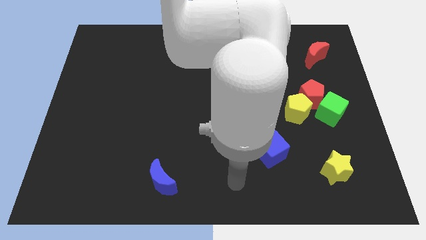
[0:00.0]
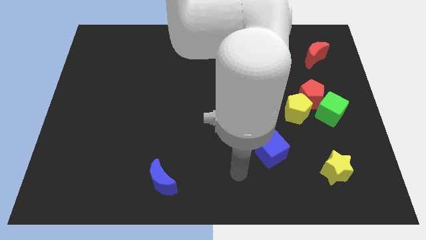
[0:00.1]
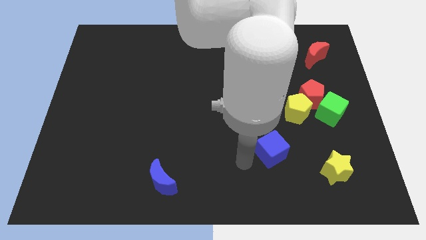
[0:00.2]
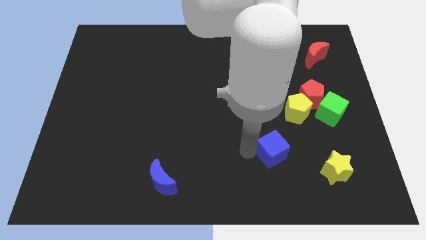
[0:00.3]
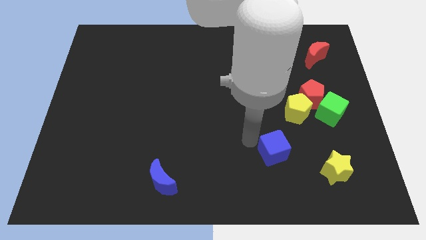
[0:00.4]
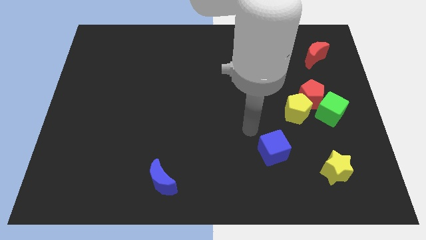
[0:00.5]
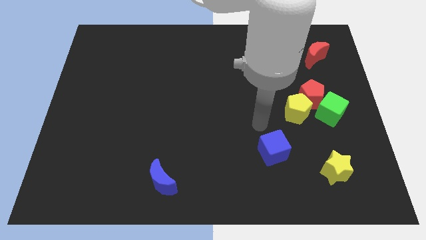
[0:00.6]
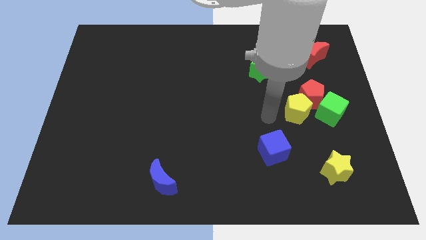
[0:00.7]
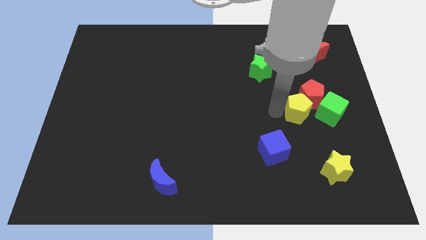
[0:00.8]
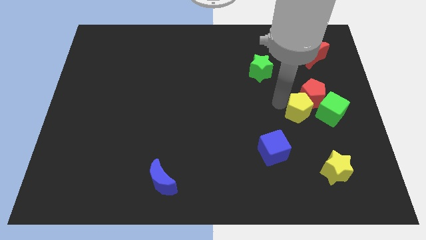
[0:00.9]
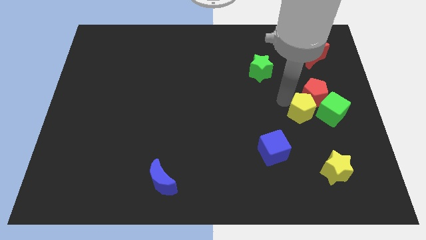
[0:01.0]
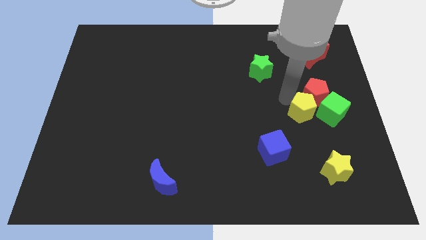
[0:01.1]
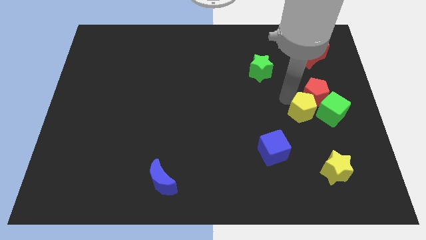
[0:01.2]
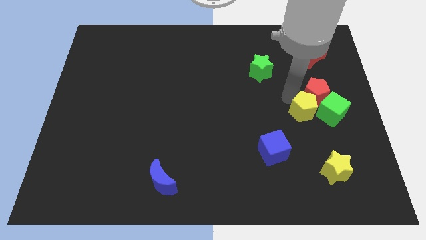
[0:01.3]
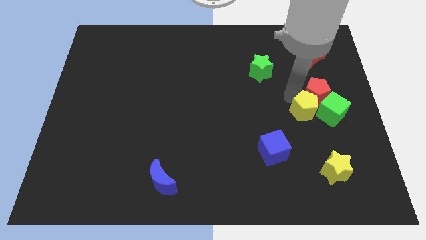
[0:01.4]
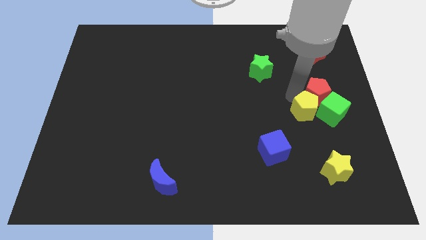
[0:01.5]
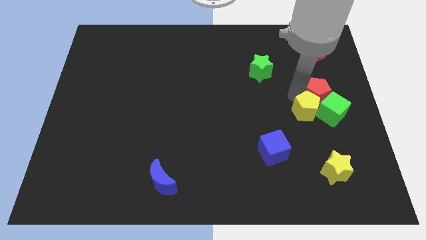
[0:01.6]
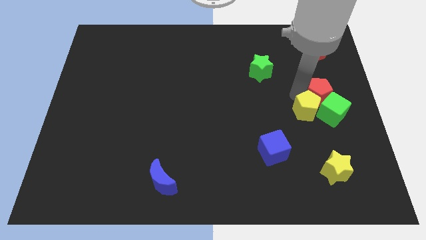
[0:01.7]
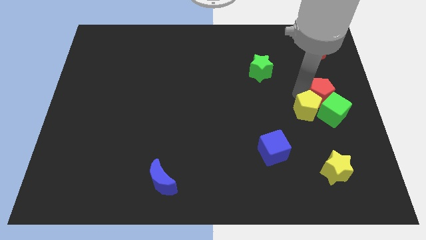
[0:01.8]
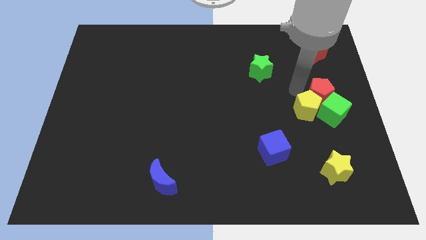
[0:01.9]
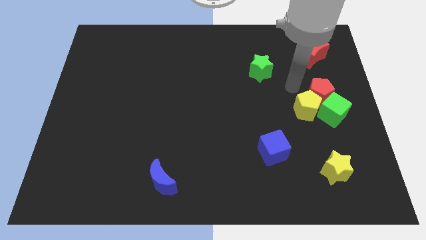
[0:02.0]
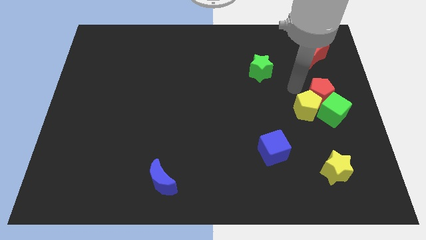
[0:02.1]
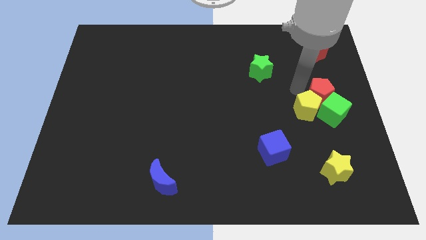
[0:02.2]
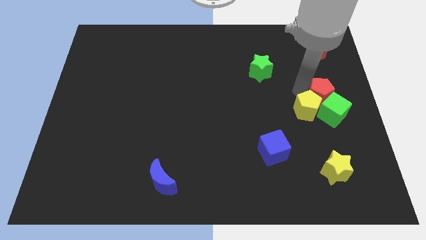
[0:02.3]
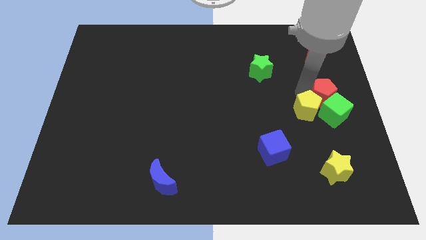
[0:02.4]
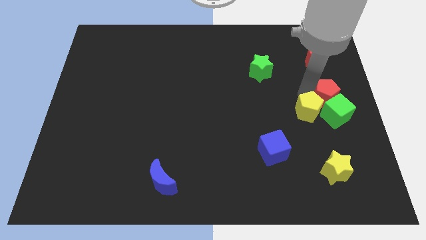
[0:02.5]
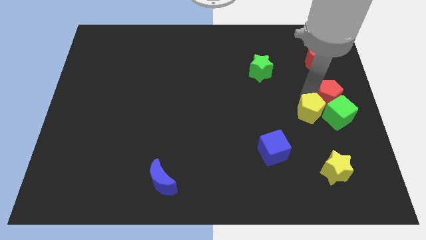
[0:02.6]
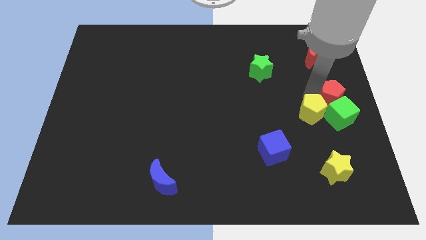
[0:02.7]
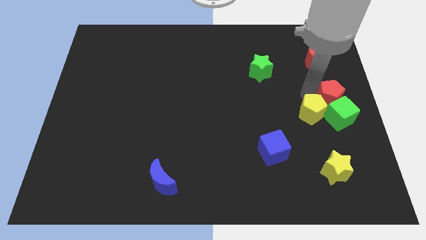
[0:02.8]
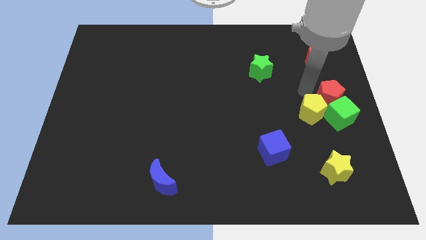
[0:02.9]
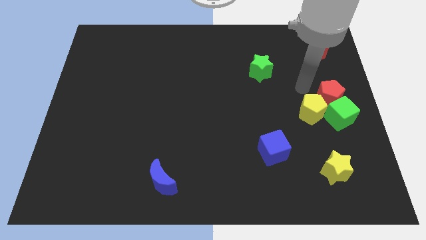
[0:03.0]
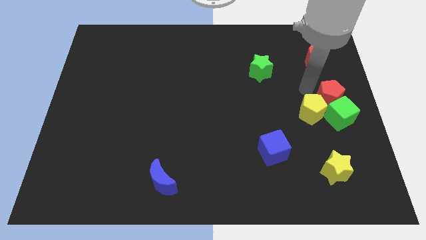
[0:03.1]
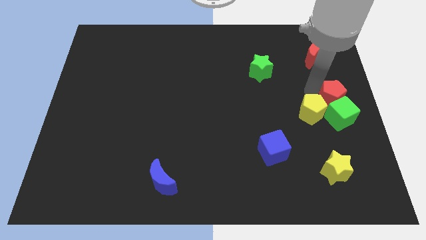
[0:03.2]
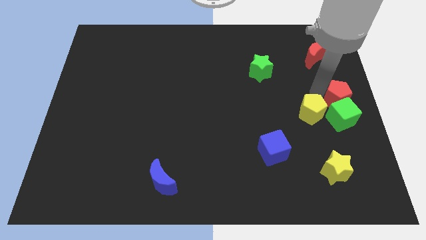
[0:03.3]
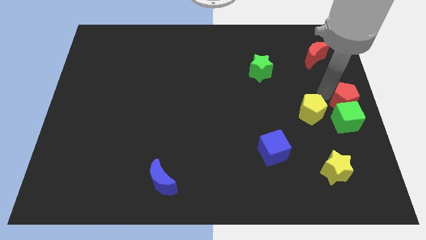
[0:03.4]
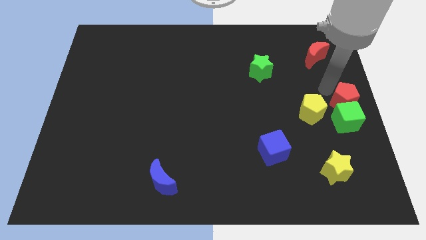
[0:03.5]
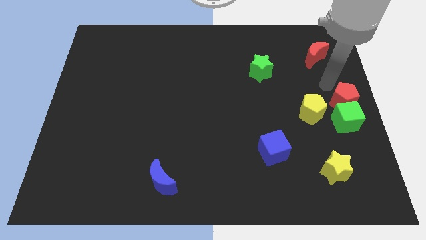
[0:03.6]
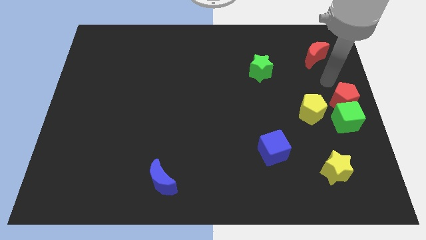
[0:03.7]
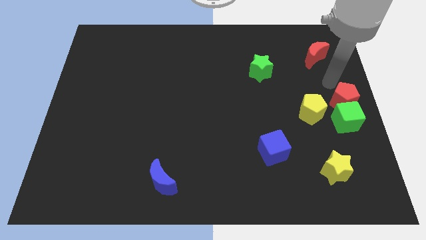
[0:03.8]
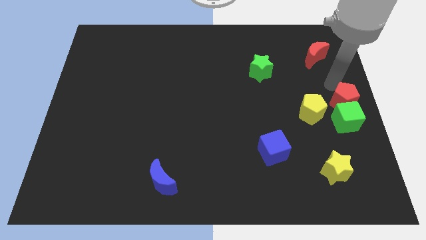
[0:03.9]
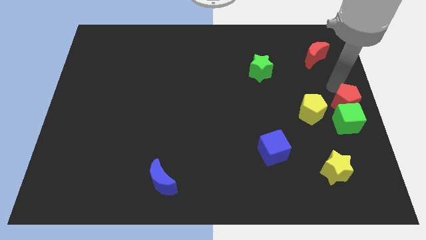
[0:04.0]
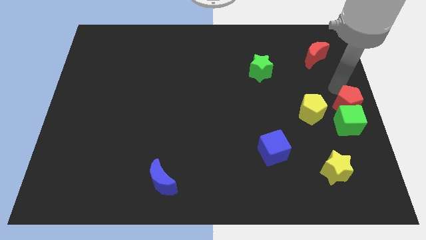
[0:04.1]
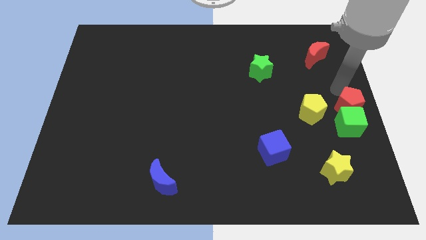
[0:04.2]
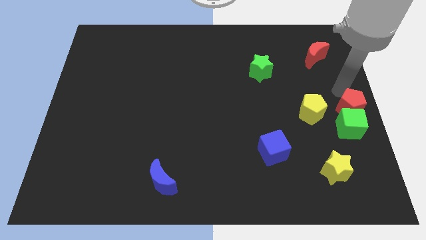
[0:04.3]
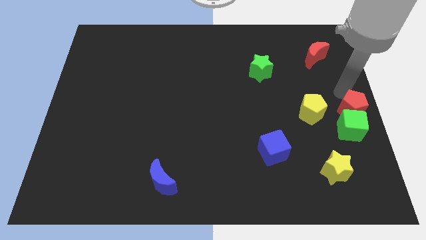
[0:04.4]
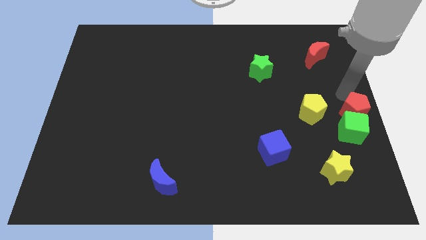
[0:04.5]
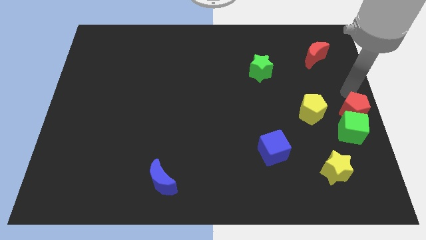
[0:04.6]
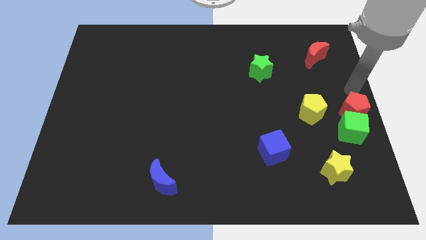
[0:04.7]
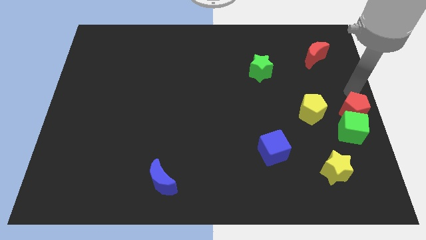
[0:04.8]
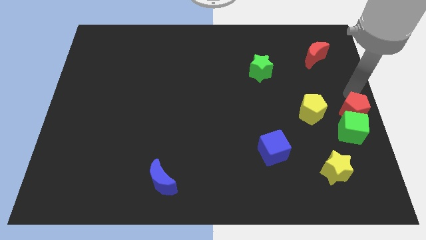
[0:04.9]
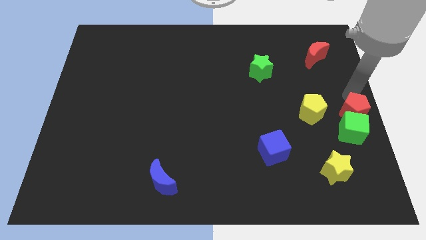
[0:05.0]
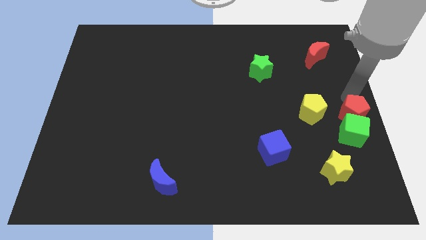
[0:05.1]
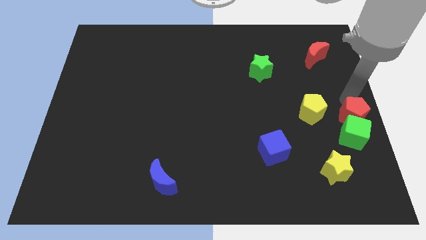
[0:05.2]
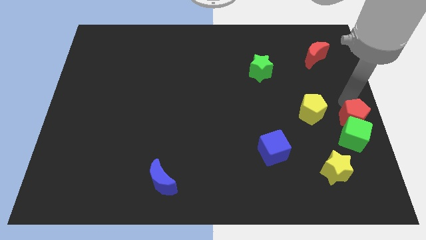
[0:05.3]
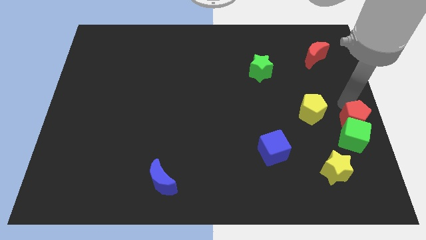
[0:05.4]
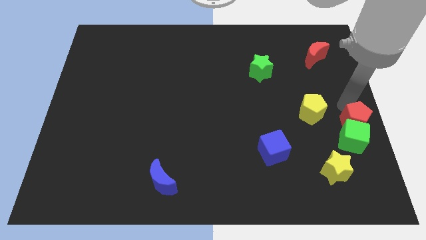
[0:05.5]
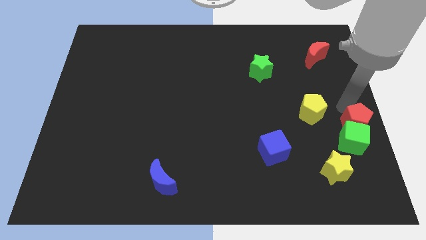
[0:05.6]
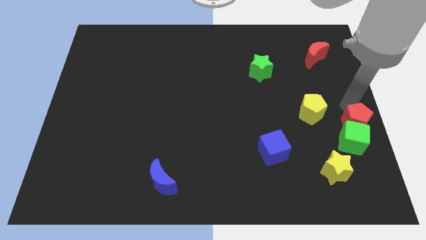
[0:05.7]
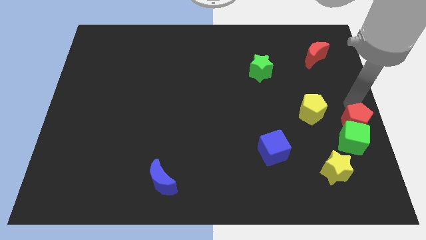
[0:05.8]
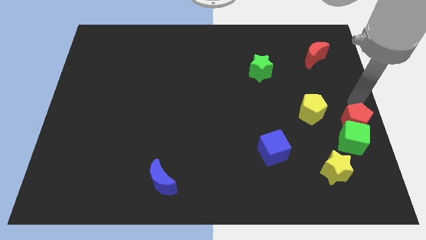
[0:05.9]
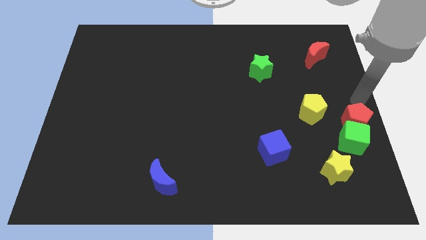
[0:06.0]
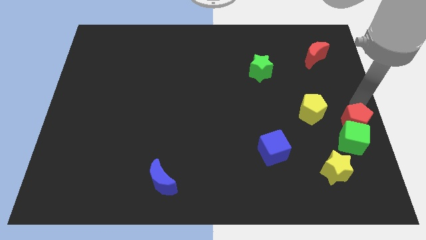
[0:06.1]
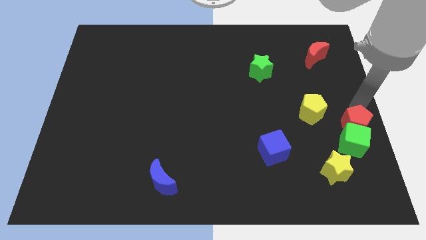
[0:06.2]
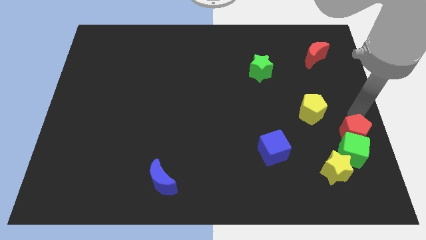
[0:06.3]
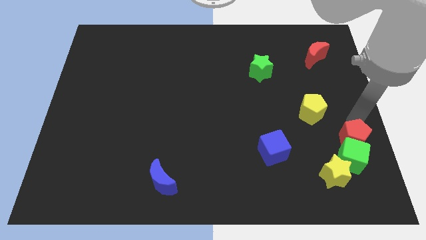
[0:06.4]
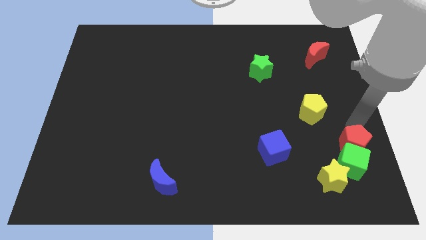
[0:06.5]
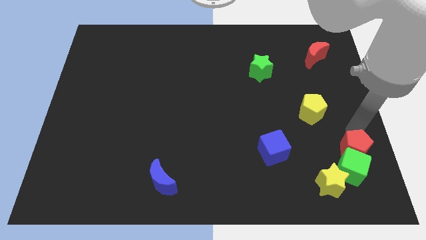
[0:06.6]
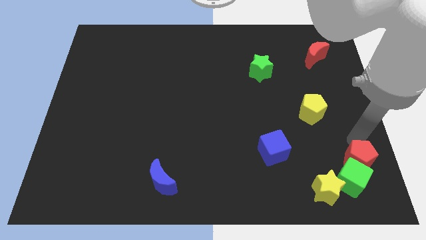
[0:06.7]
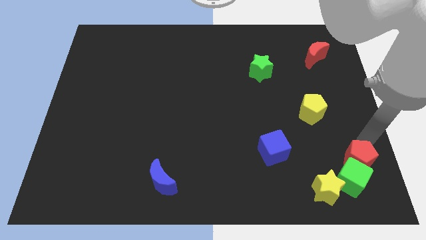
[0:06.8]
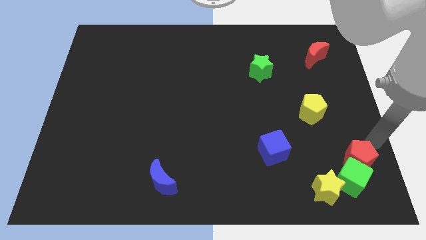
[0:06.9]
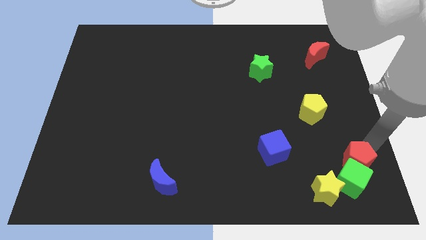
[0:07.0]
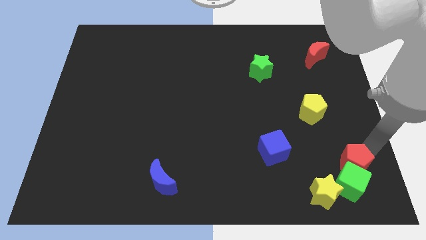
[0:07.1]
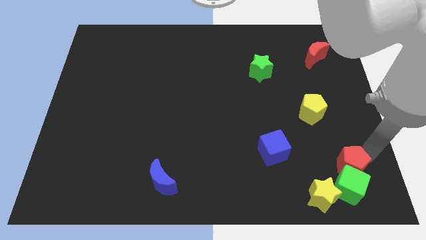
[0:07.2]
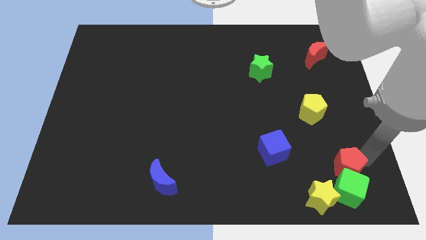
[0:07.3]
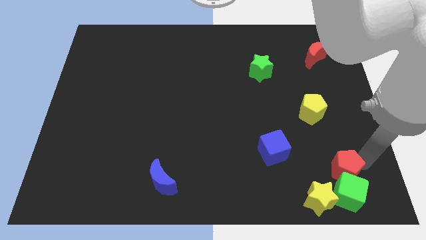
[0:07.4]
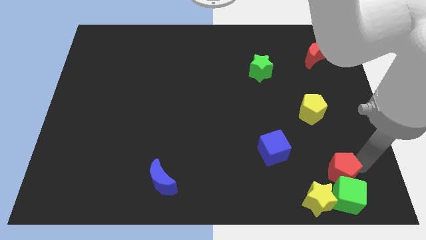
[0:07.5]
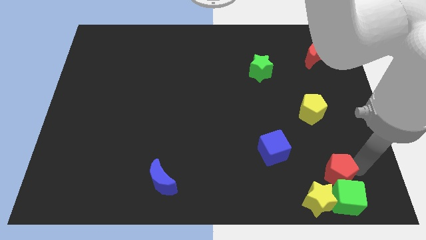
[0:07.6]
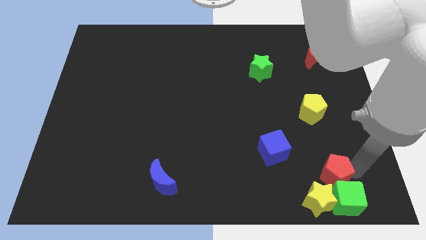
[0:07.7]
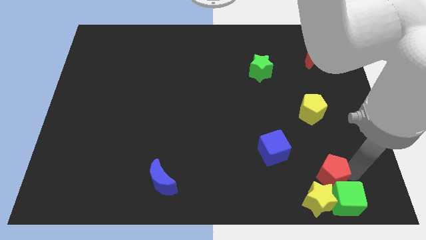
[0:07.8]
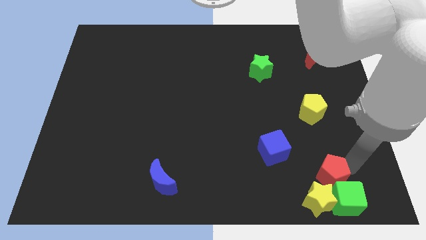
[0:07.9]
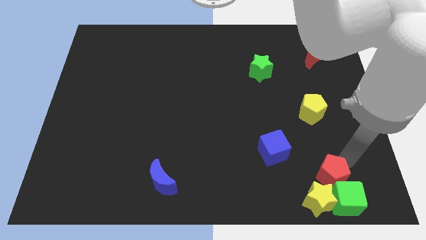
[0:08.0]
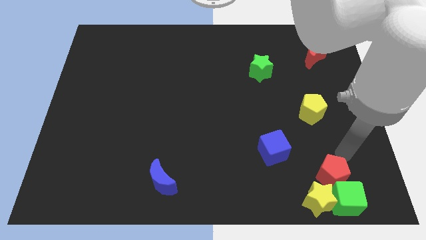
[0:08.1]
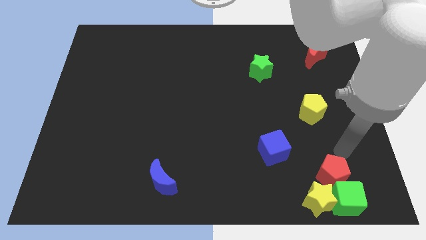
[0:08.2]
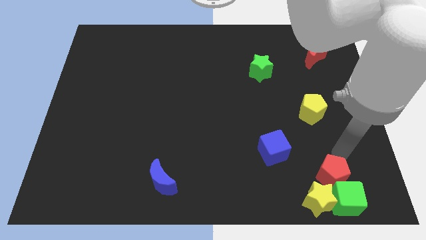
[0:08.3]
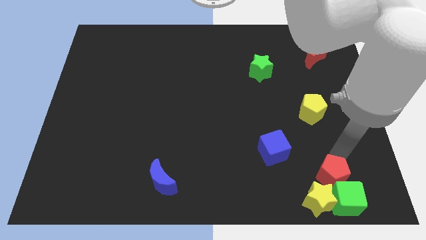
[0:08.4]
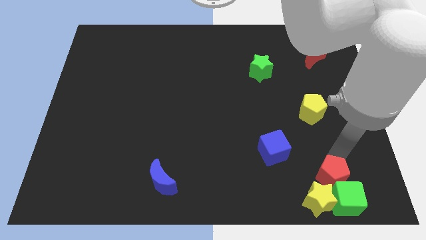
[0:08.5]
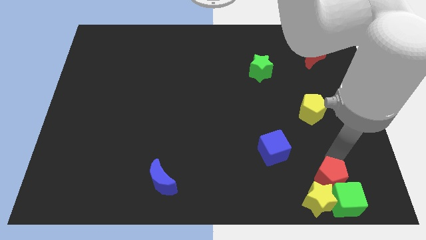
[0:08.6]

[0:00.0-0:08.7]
move the red pentagon next to the yellow star
